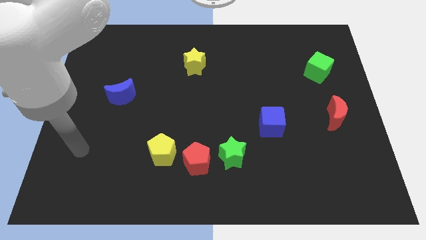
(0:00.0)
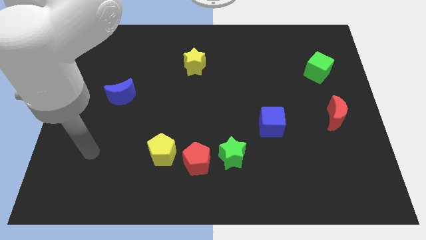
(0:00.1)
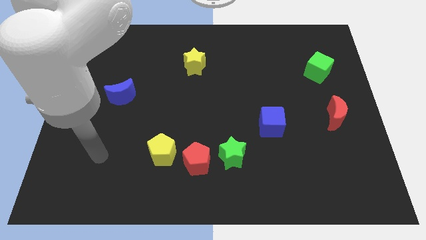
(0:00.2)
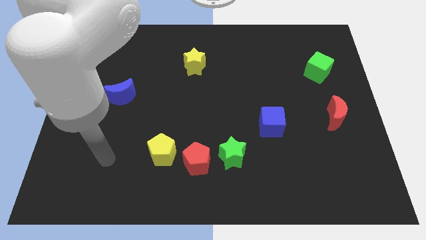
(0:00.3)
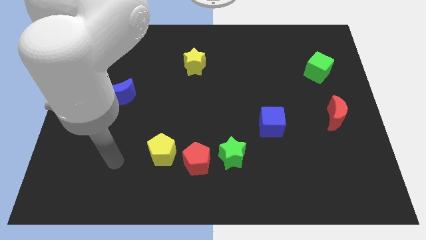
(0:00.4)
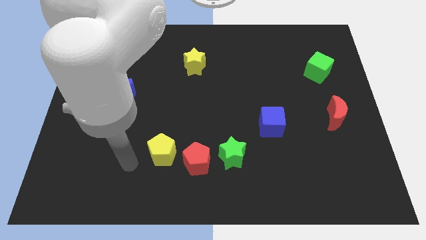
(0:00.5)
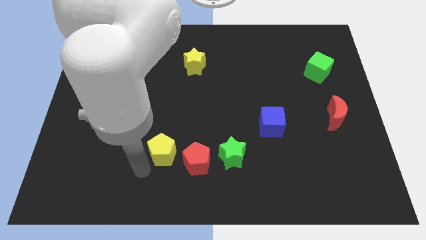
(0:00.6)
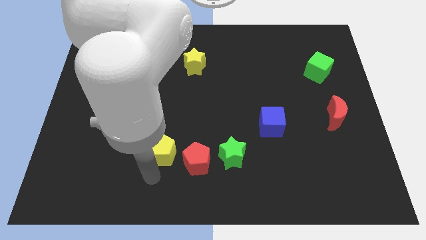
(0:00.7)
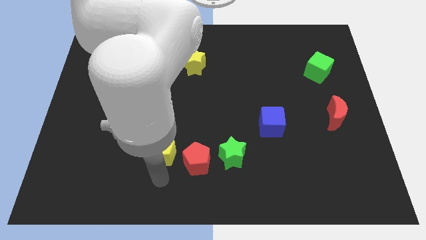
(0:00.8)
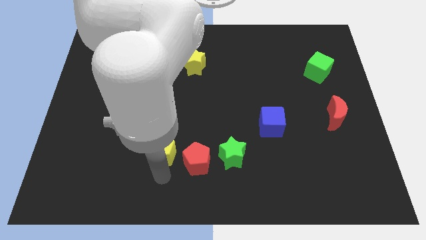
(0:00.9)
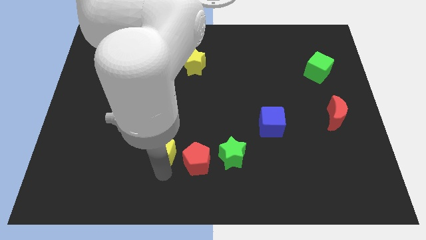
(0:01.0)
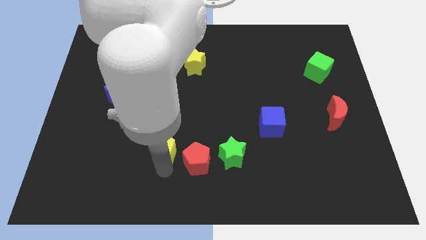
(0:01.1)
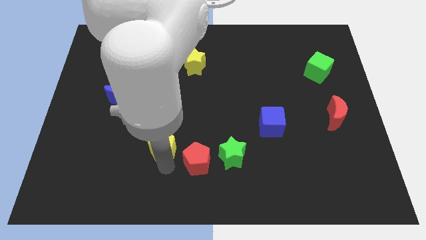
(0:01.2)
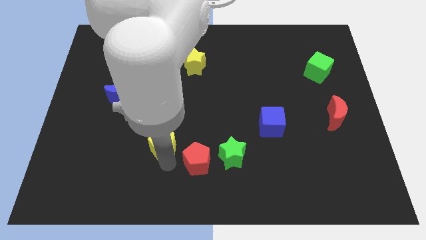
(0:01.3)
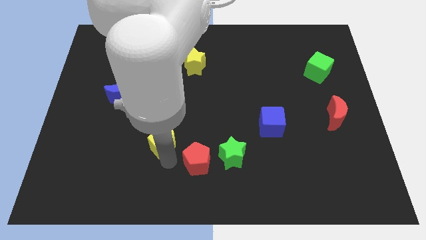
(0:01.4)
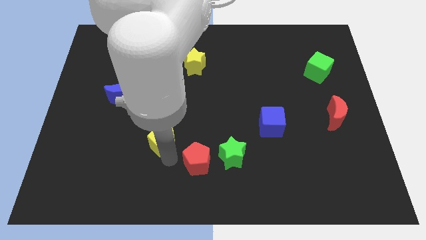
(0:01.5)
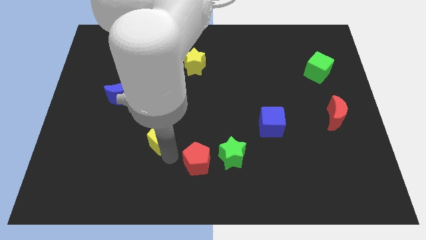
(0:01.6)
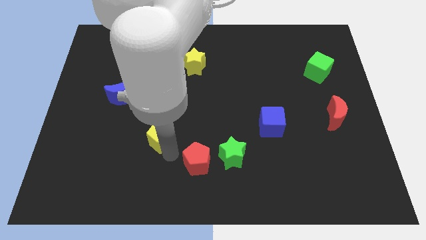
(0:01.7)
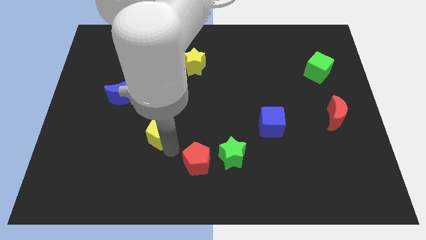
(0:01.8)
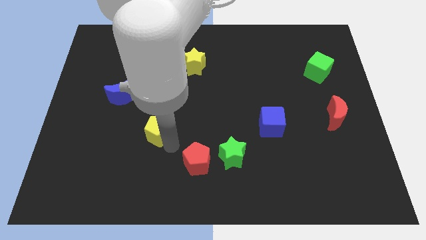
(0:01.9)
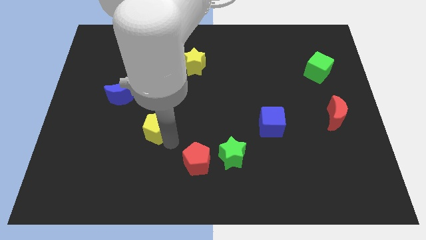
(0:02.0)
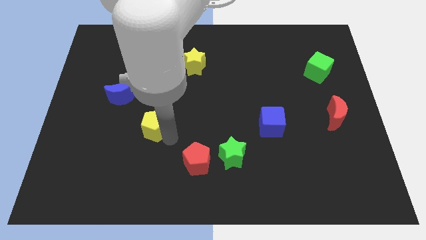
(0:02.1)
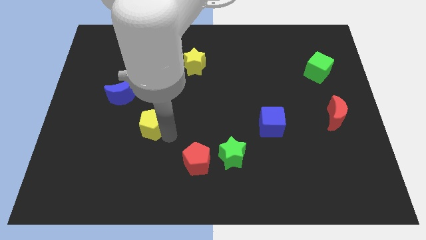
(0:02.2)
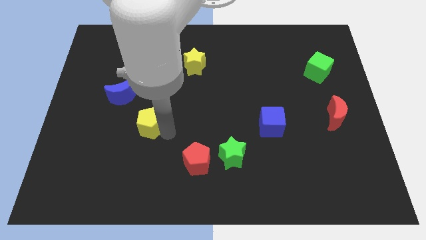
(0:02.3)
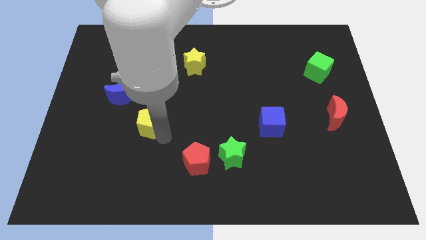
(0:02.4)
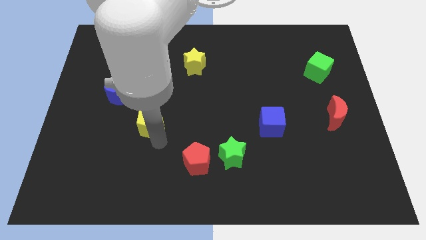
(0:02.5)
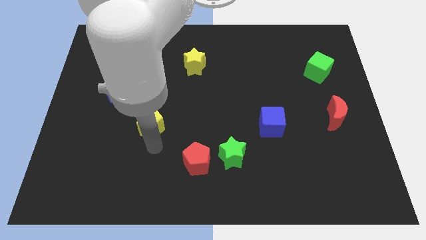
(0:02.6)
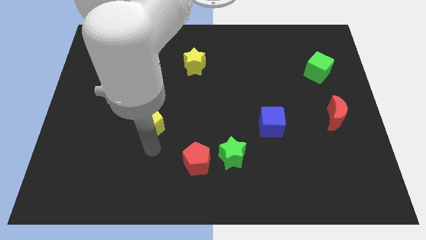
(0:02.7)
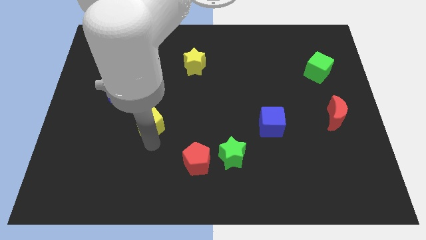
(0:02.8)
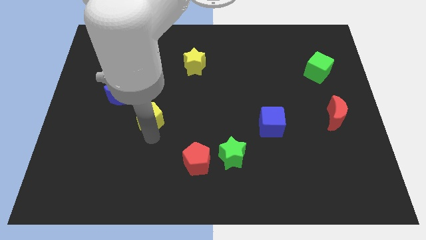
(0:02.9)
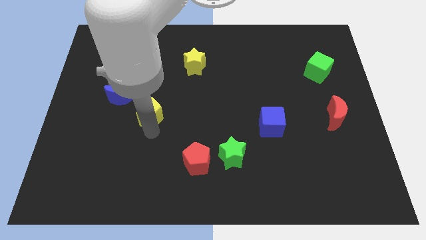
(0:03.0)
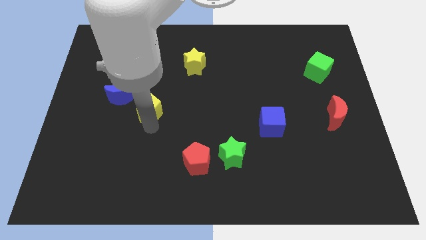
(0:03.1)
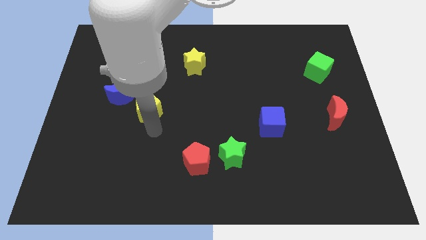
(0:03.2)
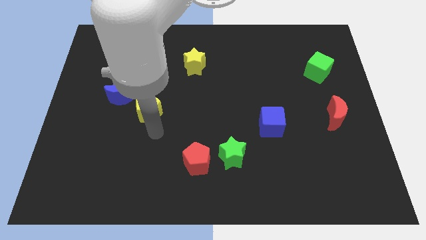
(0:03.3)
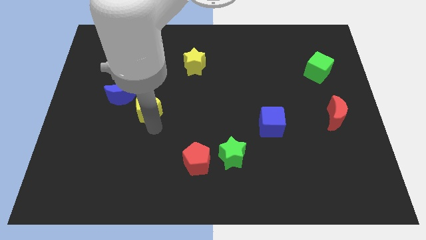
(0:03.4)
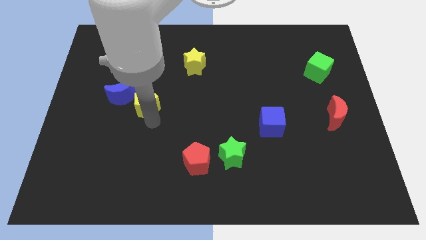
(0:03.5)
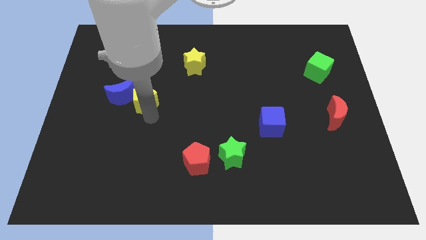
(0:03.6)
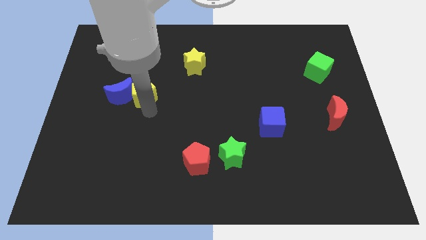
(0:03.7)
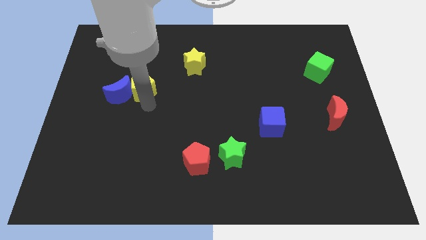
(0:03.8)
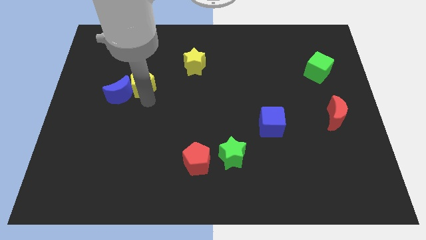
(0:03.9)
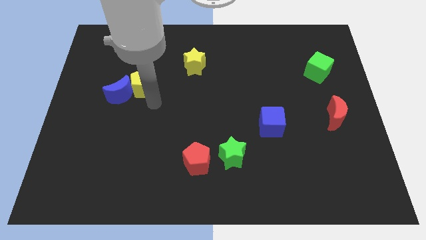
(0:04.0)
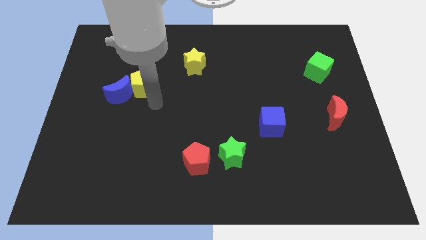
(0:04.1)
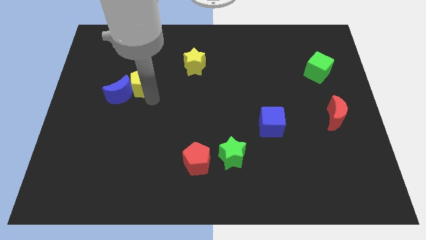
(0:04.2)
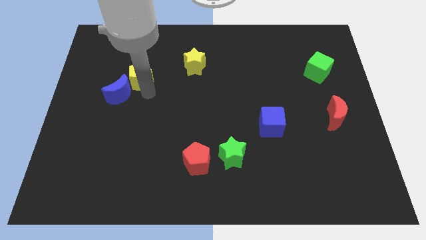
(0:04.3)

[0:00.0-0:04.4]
push the yellow pentagon to the top of the blue moon

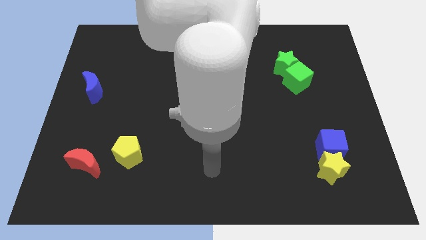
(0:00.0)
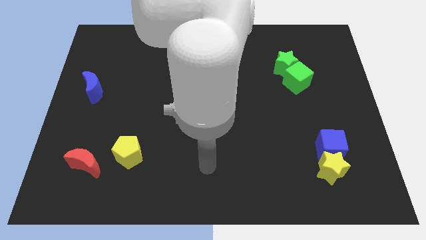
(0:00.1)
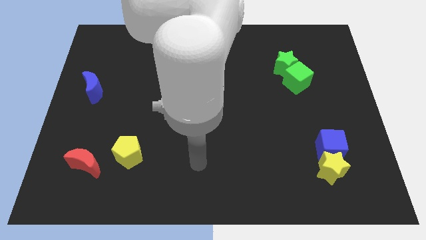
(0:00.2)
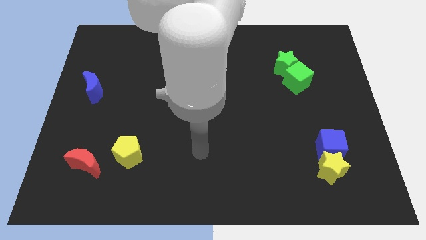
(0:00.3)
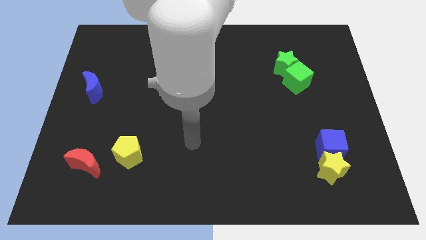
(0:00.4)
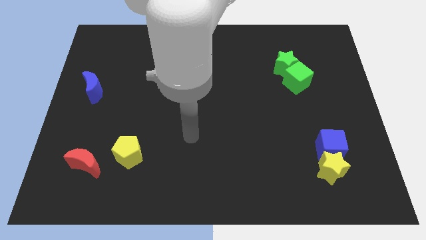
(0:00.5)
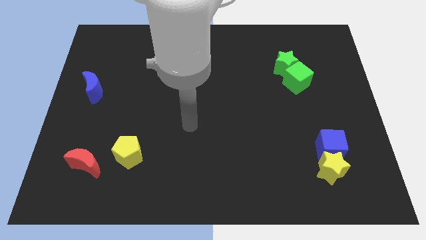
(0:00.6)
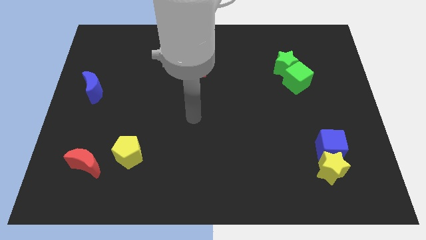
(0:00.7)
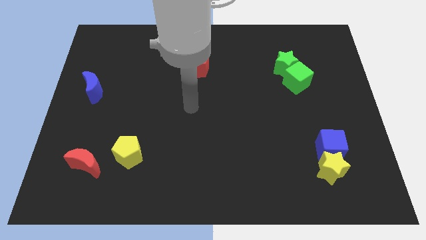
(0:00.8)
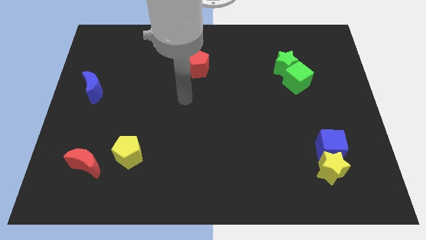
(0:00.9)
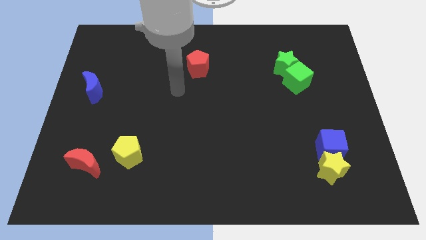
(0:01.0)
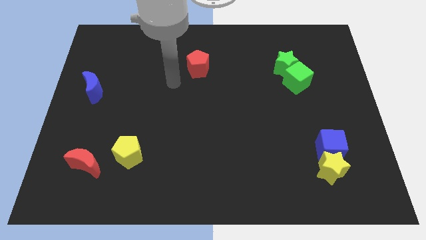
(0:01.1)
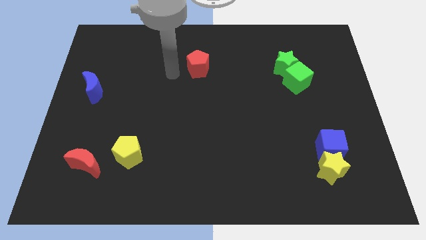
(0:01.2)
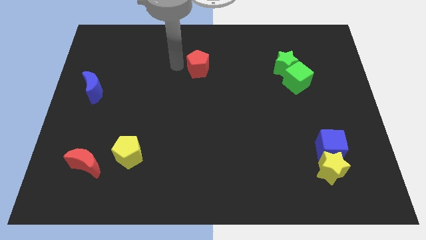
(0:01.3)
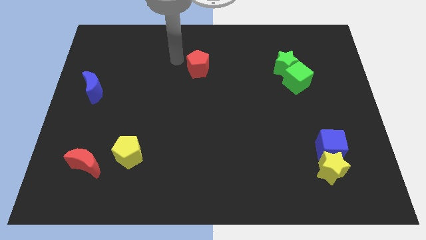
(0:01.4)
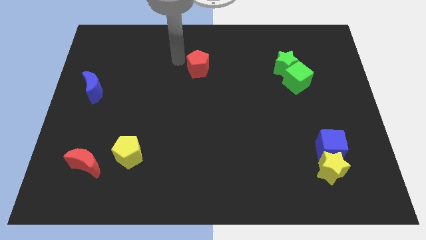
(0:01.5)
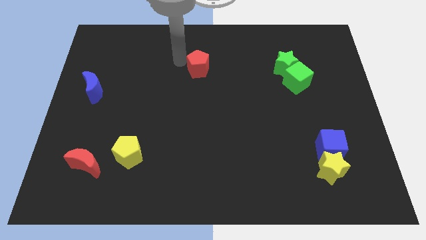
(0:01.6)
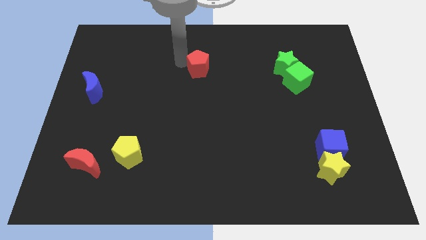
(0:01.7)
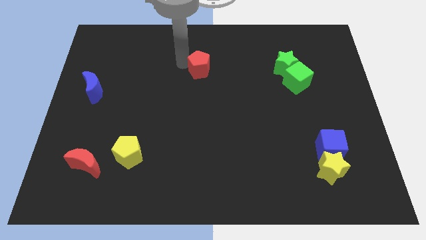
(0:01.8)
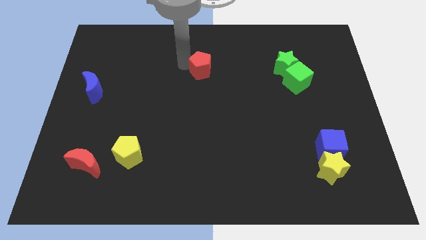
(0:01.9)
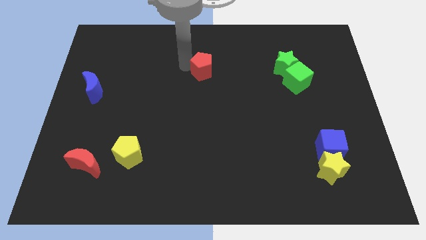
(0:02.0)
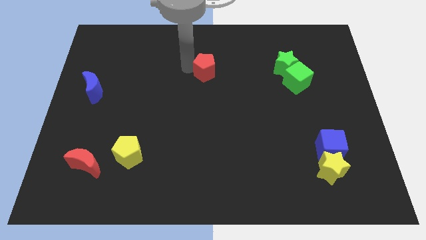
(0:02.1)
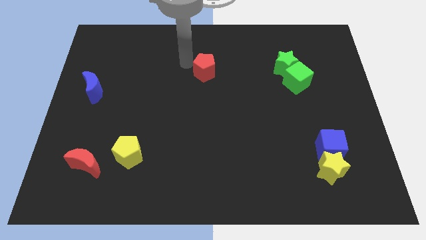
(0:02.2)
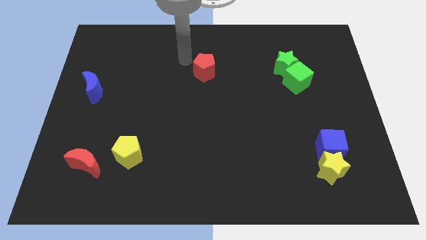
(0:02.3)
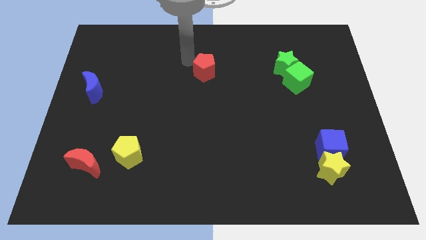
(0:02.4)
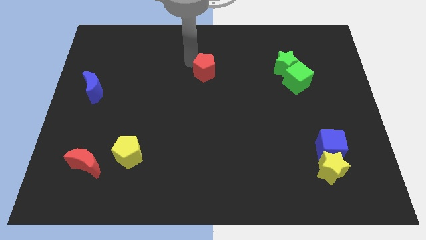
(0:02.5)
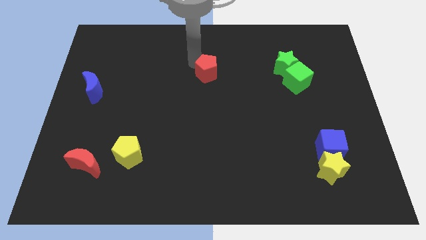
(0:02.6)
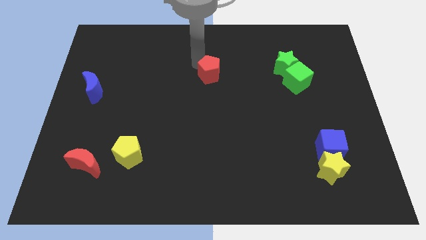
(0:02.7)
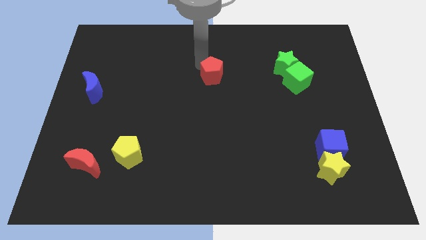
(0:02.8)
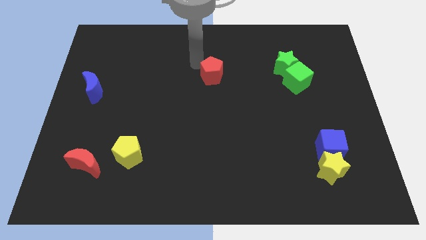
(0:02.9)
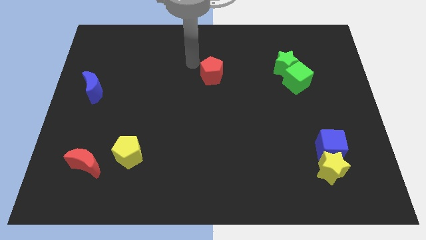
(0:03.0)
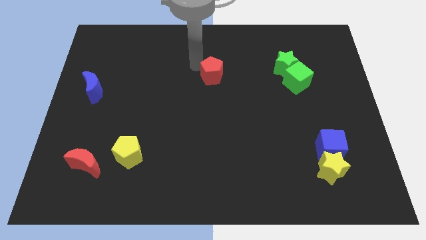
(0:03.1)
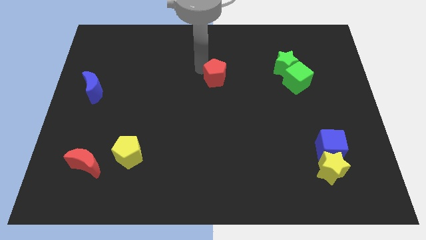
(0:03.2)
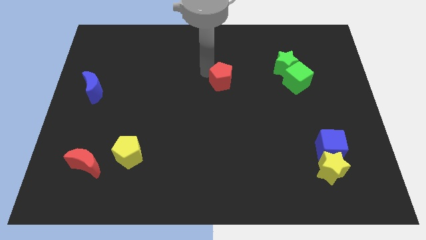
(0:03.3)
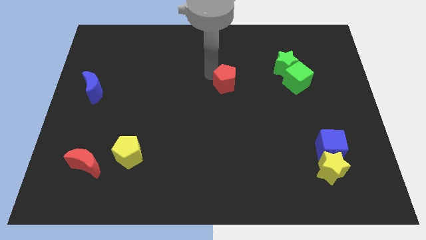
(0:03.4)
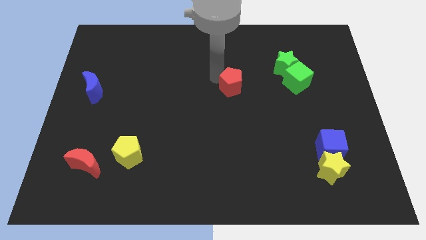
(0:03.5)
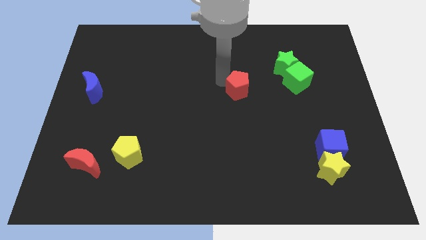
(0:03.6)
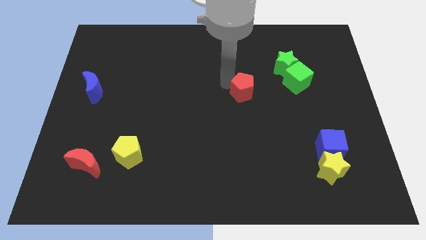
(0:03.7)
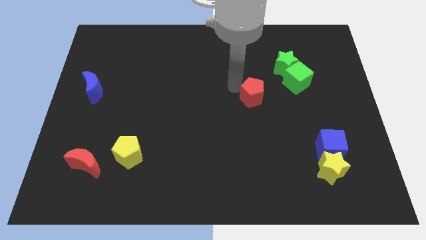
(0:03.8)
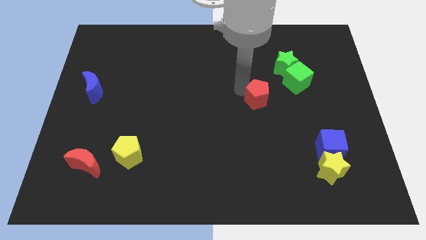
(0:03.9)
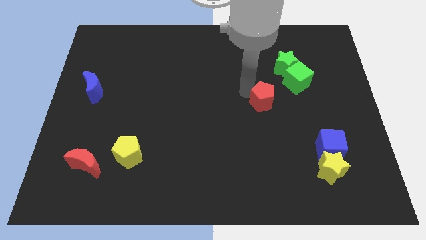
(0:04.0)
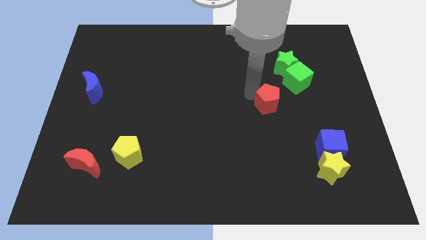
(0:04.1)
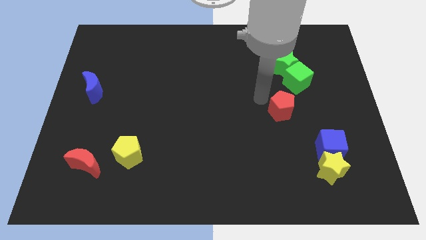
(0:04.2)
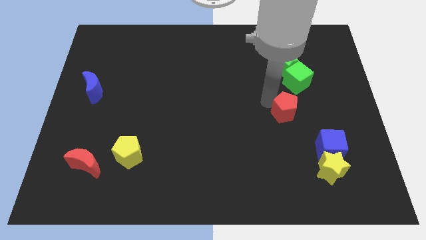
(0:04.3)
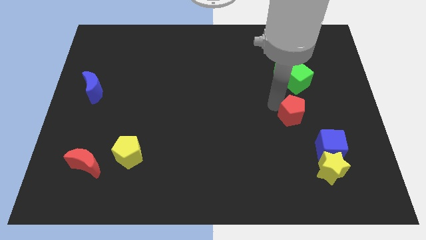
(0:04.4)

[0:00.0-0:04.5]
push the red pentagon to the top left side of the blue cube
